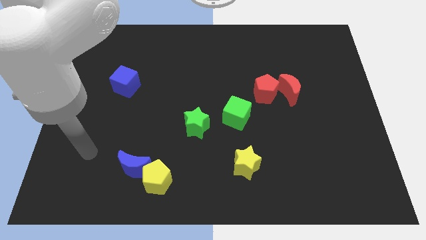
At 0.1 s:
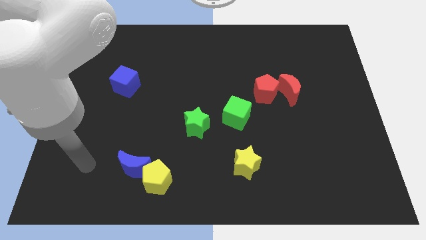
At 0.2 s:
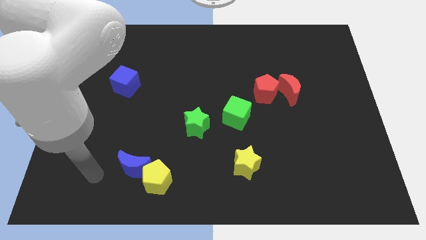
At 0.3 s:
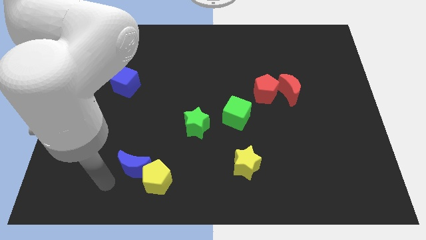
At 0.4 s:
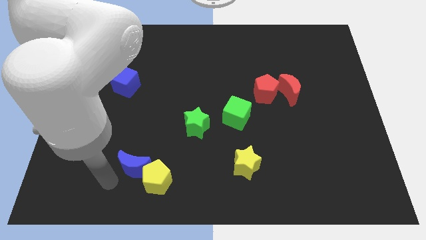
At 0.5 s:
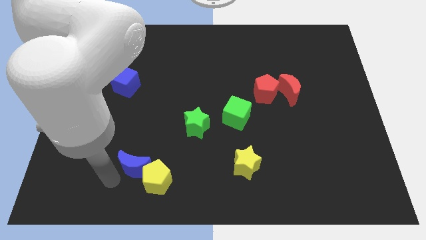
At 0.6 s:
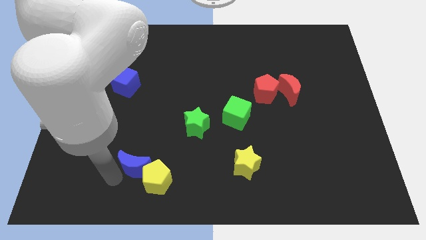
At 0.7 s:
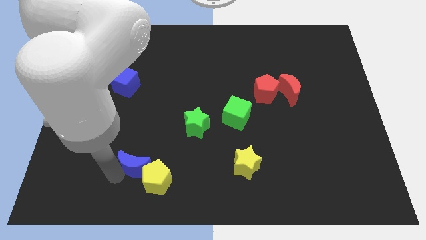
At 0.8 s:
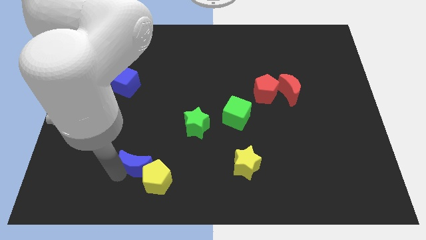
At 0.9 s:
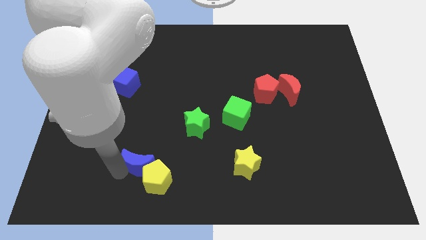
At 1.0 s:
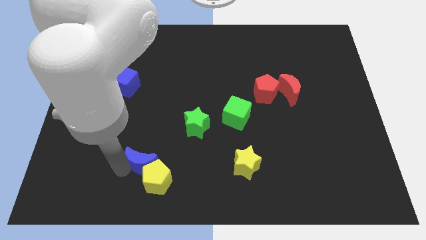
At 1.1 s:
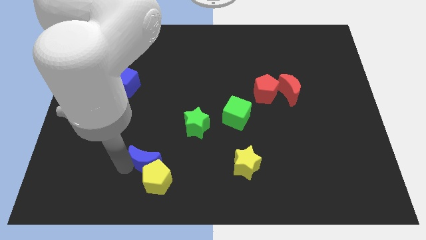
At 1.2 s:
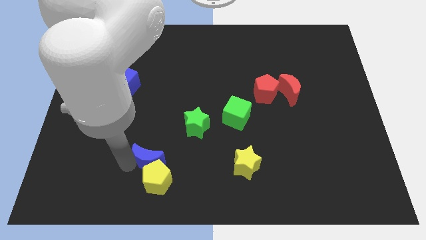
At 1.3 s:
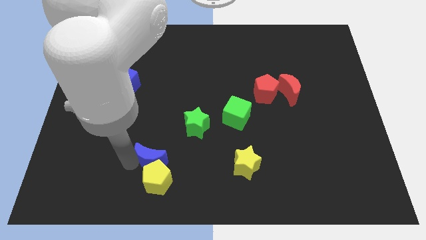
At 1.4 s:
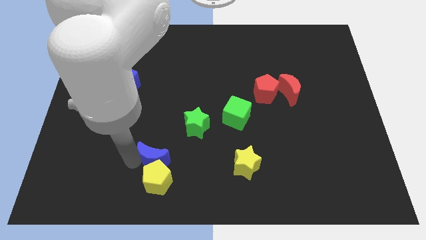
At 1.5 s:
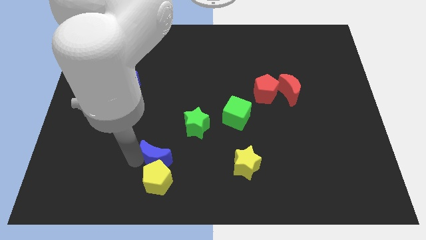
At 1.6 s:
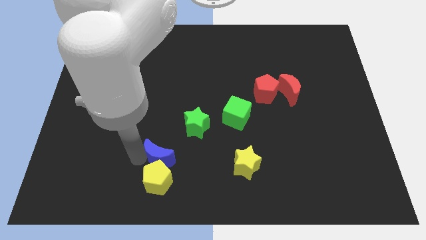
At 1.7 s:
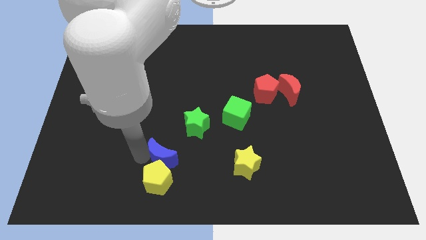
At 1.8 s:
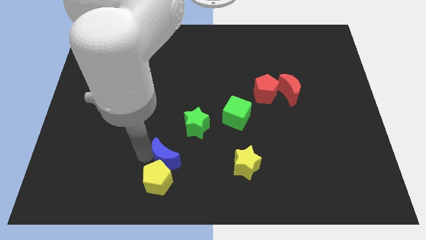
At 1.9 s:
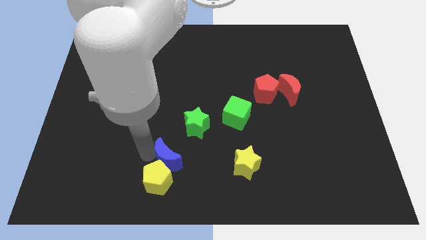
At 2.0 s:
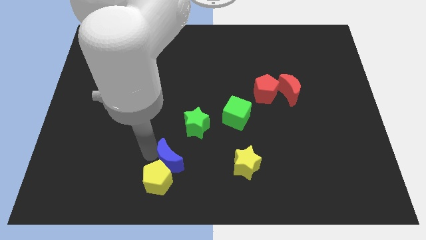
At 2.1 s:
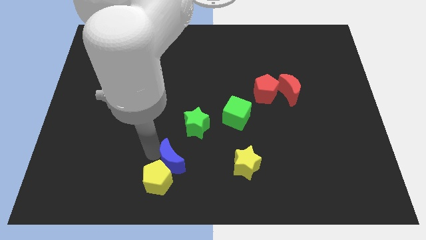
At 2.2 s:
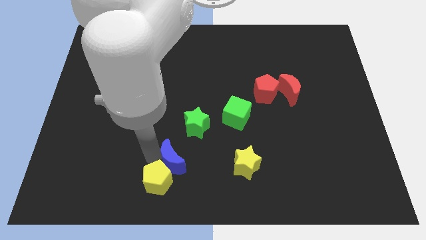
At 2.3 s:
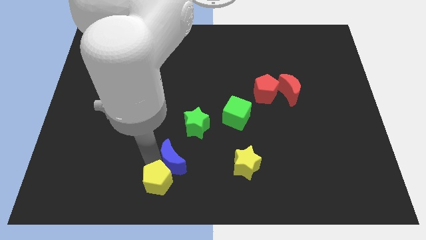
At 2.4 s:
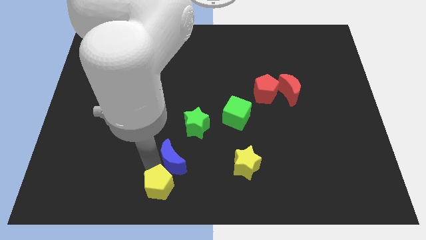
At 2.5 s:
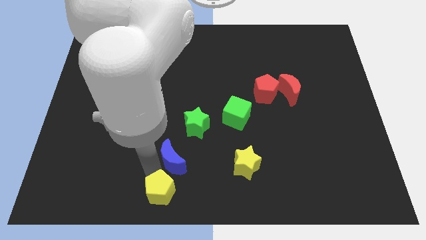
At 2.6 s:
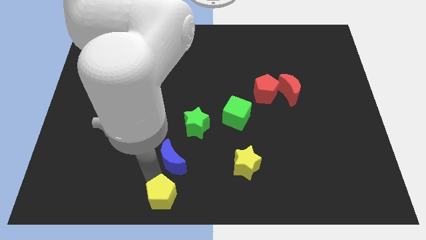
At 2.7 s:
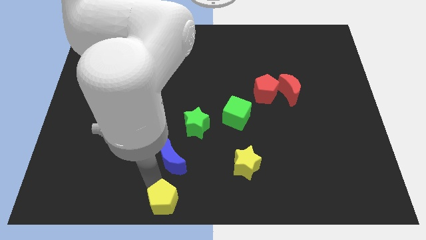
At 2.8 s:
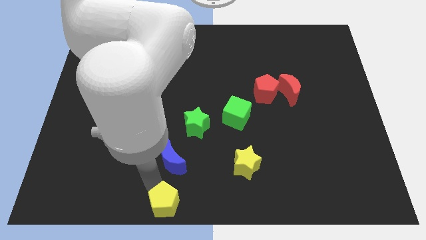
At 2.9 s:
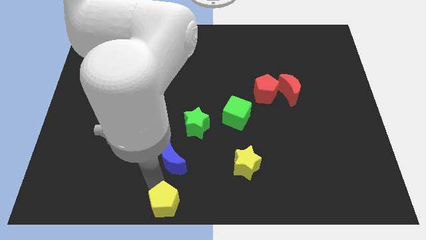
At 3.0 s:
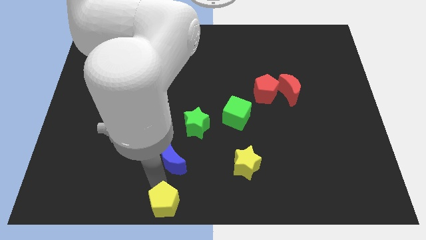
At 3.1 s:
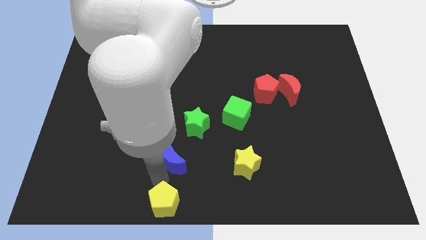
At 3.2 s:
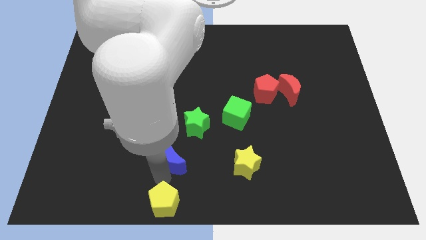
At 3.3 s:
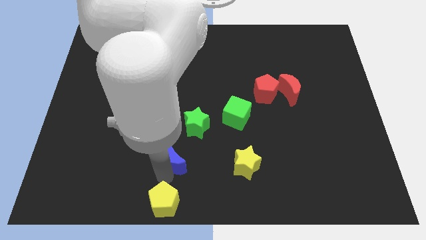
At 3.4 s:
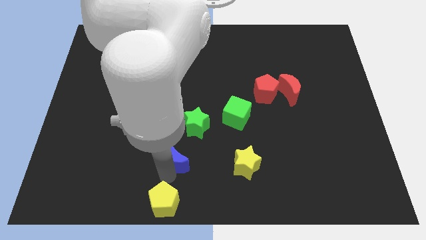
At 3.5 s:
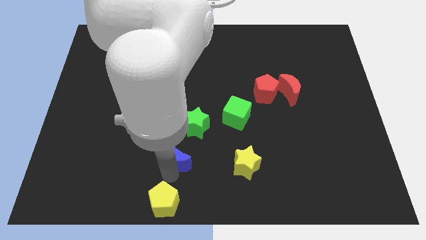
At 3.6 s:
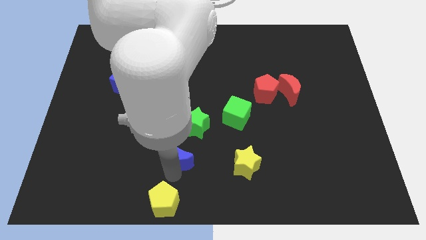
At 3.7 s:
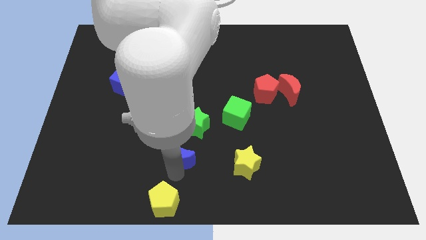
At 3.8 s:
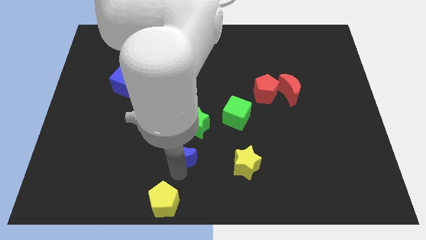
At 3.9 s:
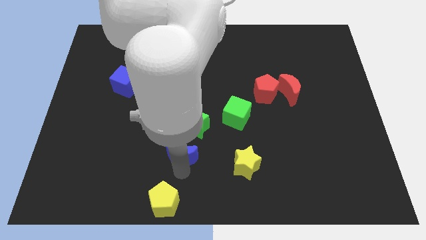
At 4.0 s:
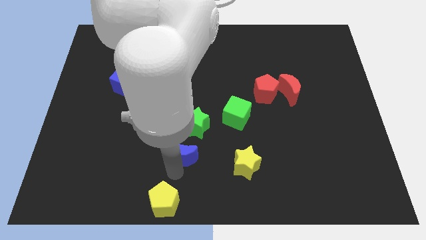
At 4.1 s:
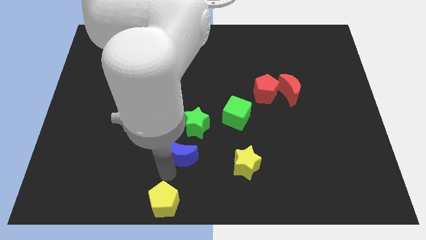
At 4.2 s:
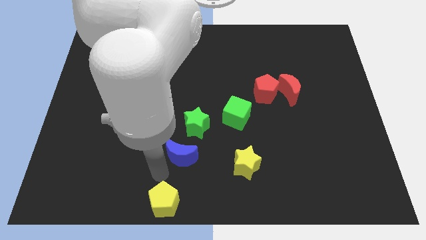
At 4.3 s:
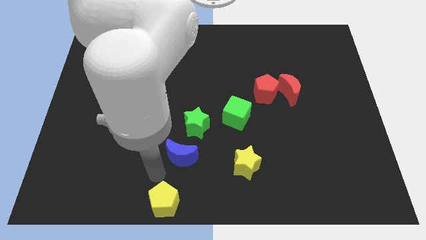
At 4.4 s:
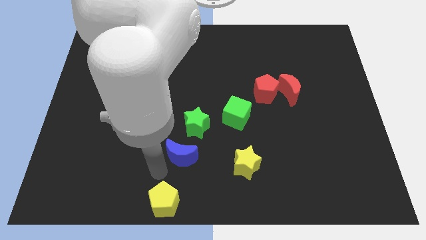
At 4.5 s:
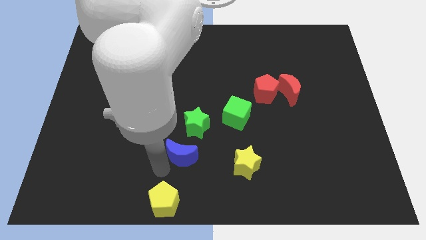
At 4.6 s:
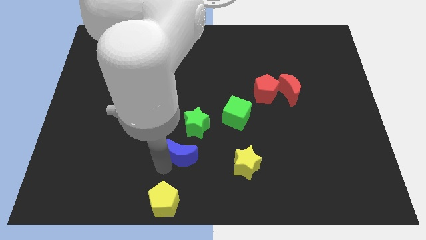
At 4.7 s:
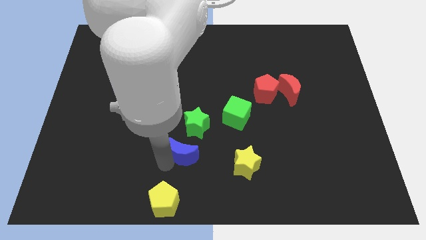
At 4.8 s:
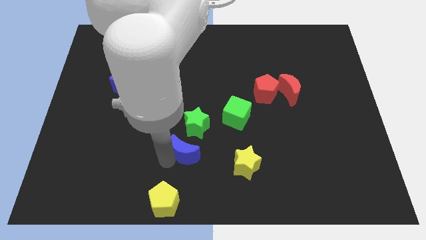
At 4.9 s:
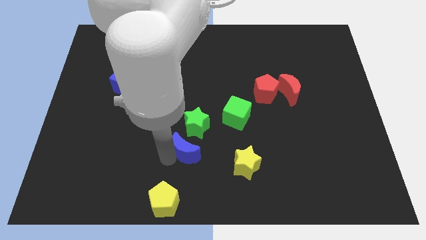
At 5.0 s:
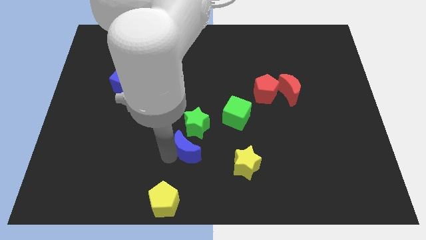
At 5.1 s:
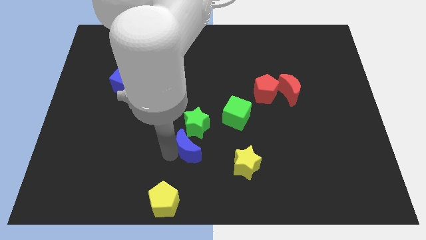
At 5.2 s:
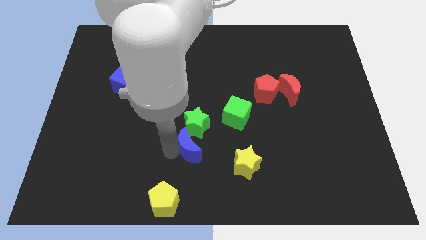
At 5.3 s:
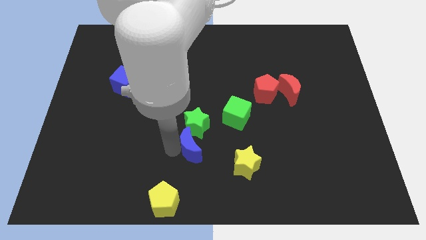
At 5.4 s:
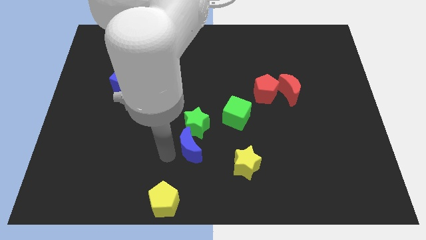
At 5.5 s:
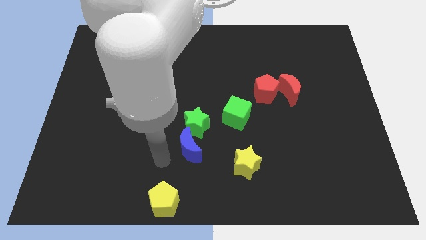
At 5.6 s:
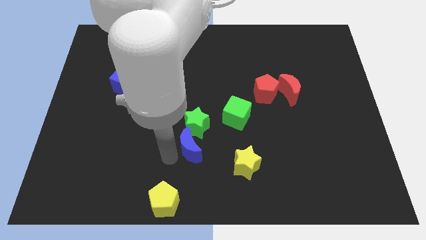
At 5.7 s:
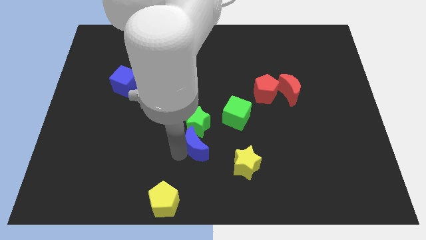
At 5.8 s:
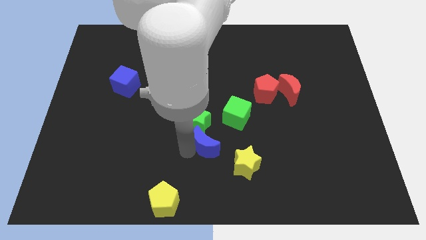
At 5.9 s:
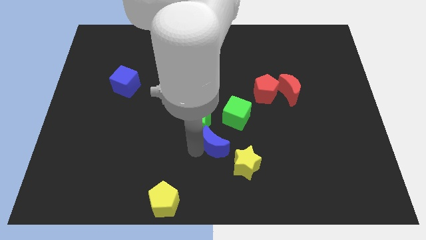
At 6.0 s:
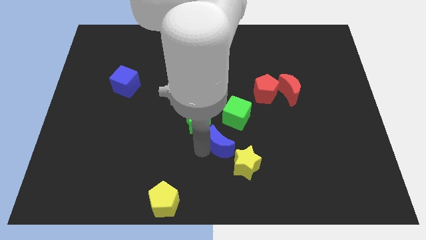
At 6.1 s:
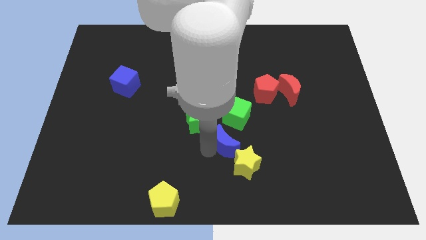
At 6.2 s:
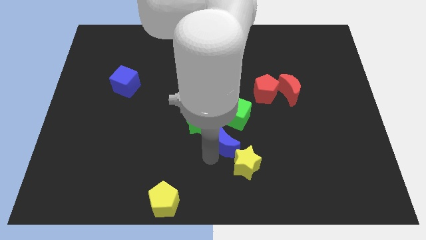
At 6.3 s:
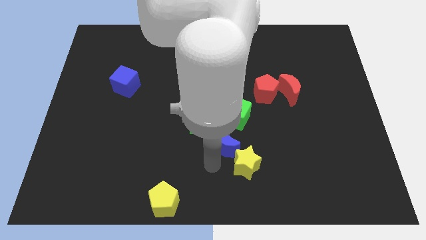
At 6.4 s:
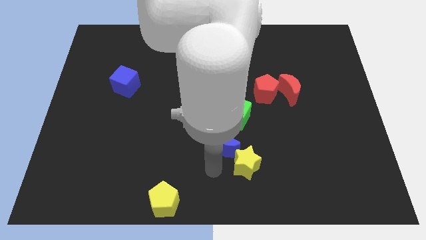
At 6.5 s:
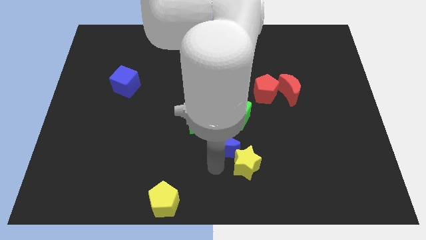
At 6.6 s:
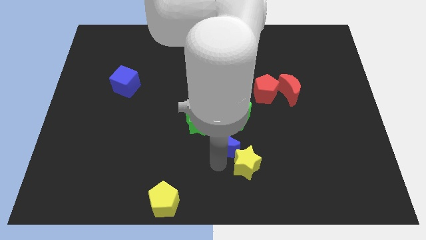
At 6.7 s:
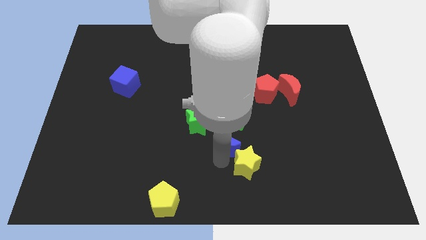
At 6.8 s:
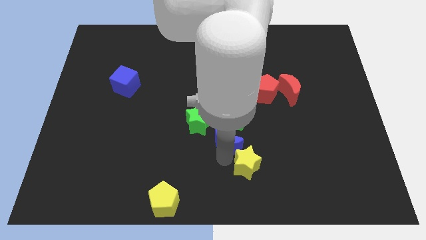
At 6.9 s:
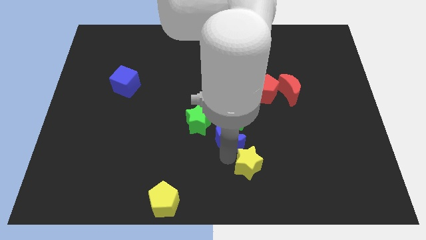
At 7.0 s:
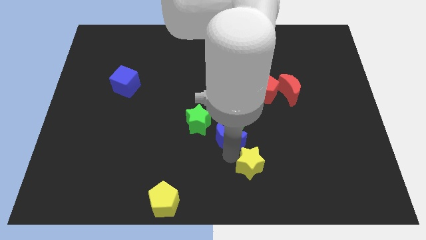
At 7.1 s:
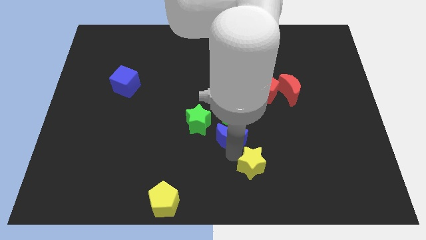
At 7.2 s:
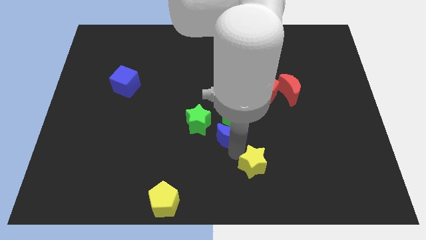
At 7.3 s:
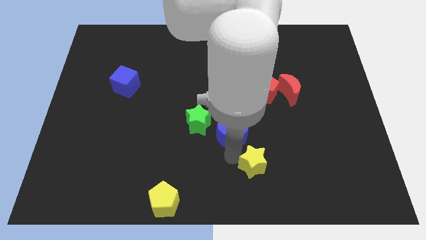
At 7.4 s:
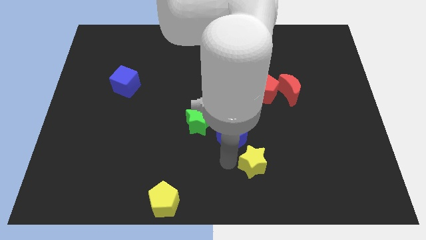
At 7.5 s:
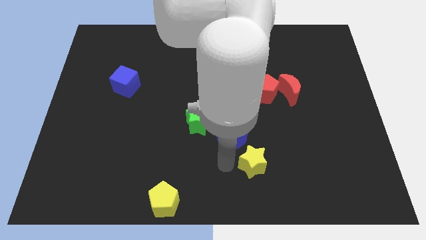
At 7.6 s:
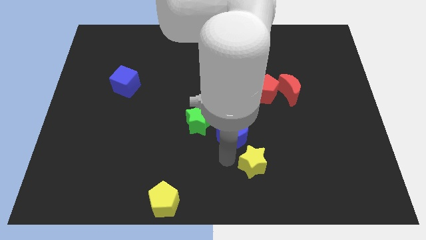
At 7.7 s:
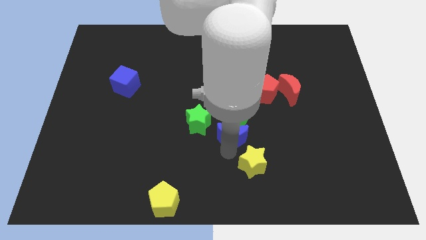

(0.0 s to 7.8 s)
push the blue moon to the green cube
